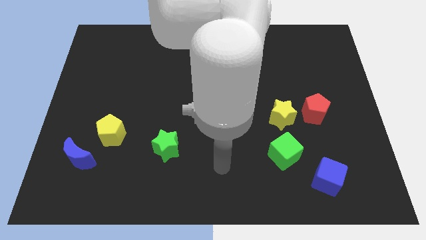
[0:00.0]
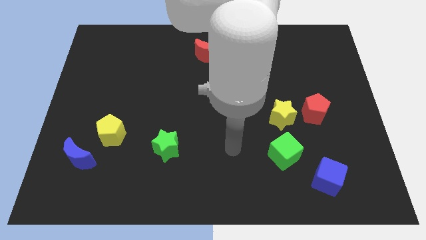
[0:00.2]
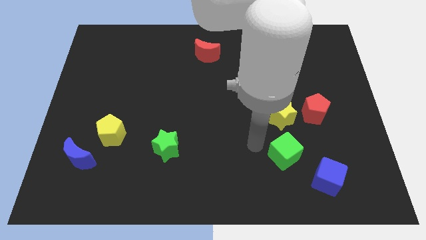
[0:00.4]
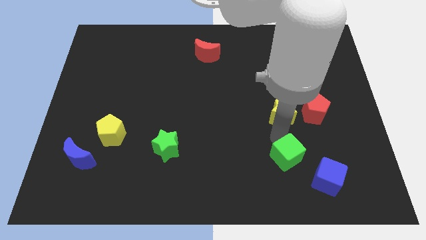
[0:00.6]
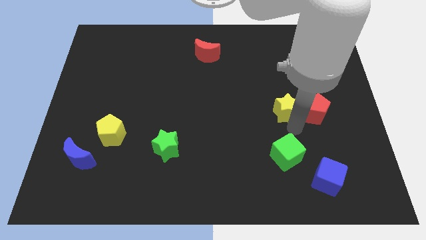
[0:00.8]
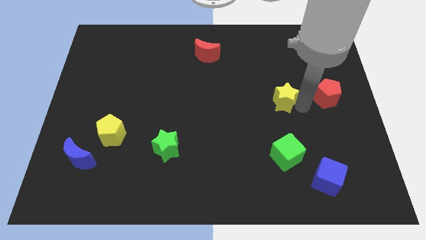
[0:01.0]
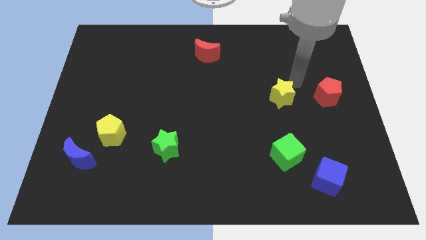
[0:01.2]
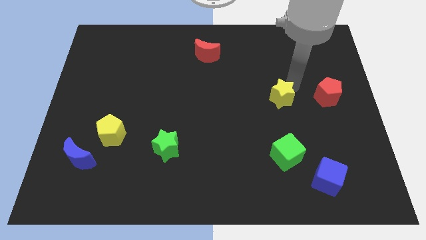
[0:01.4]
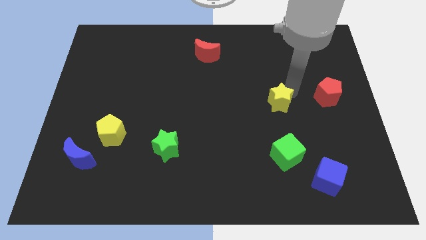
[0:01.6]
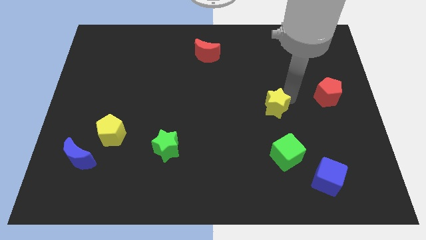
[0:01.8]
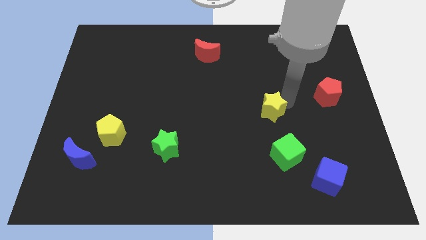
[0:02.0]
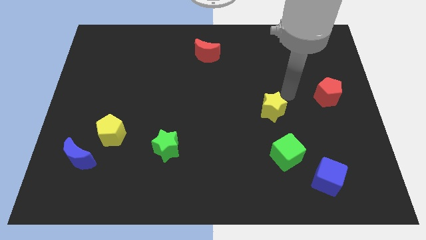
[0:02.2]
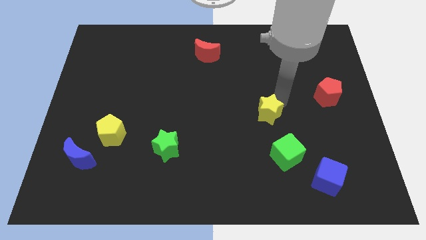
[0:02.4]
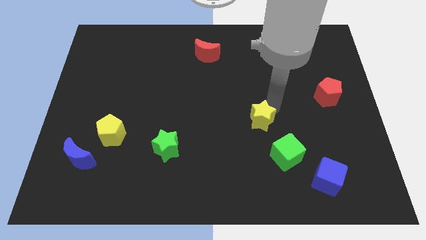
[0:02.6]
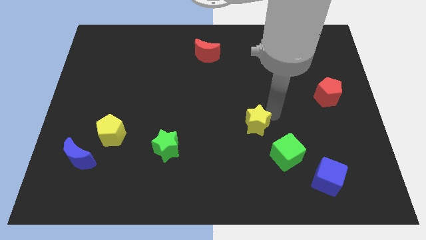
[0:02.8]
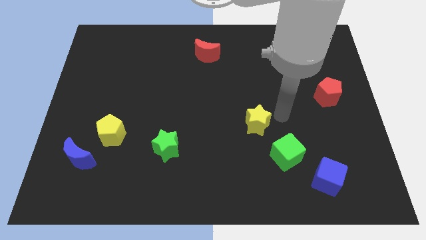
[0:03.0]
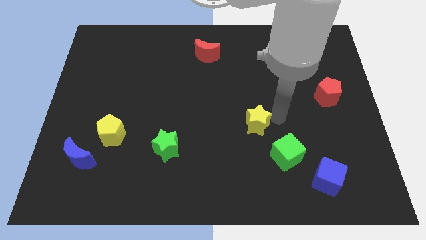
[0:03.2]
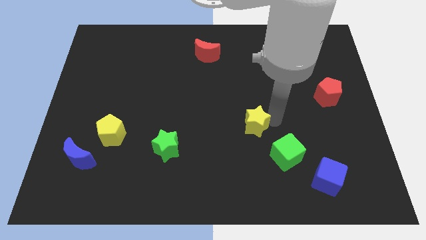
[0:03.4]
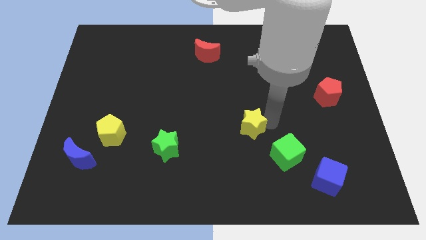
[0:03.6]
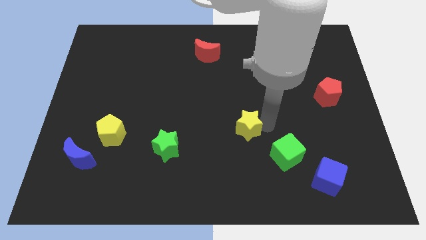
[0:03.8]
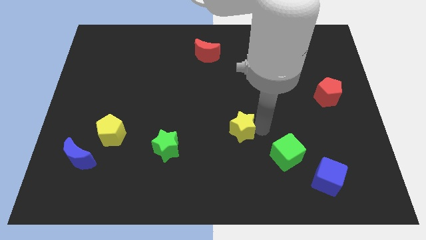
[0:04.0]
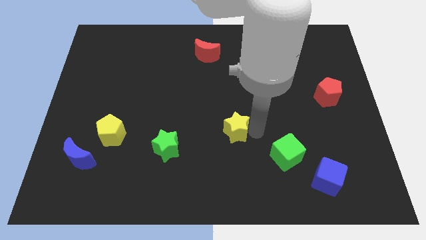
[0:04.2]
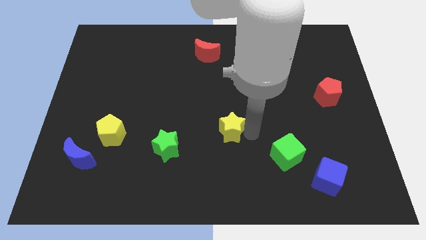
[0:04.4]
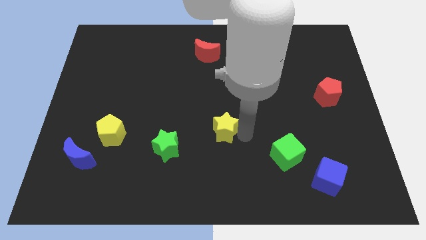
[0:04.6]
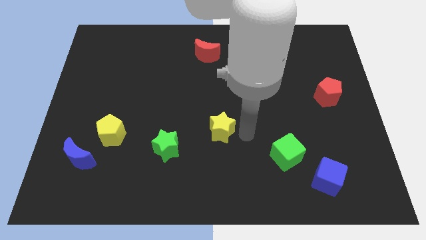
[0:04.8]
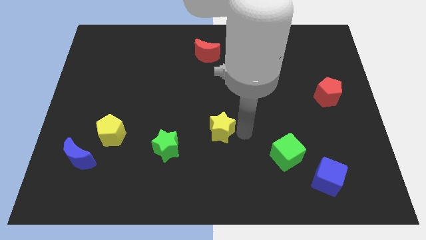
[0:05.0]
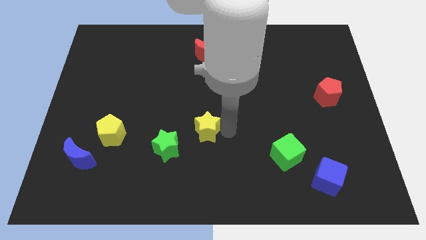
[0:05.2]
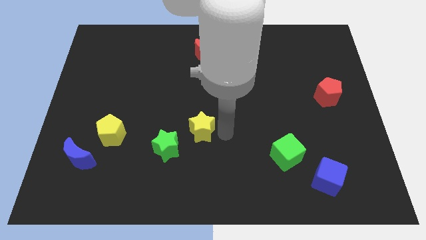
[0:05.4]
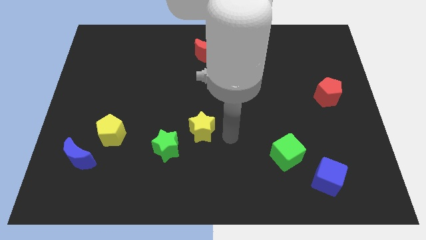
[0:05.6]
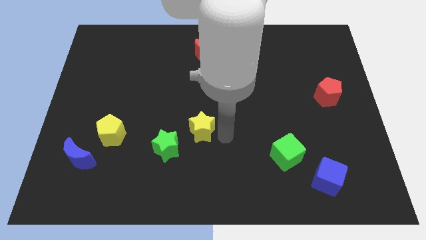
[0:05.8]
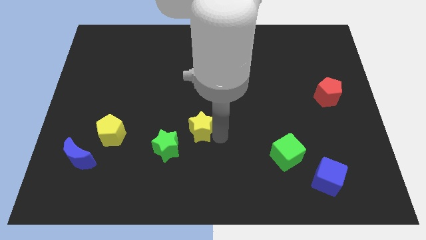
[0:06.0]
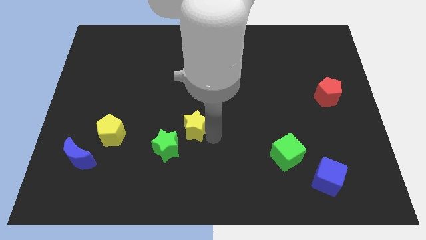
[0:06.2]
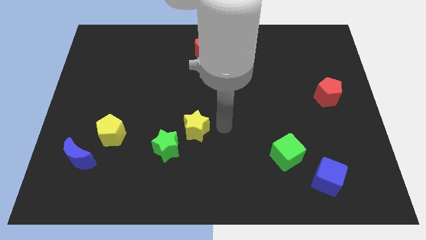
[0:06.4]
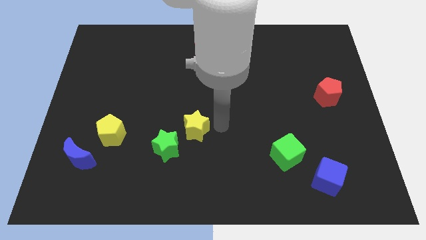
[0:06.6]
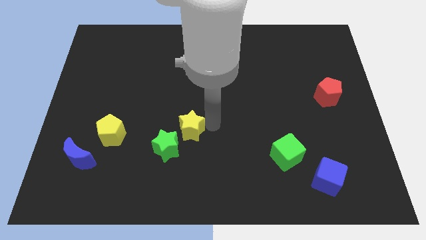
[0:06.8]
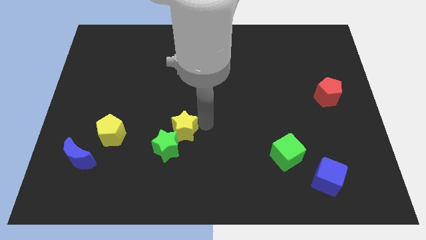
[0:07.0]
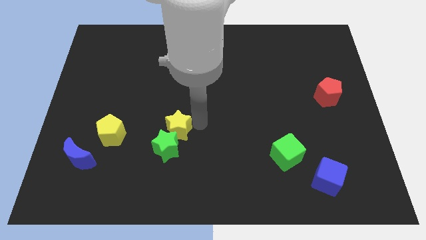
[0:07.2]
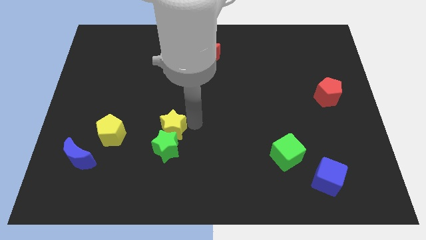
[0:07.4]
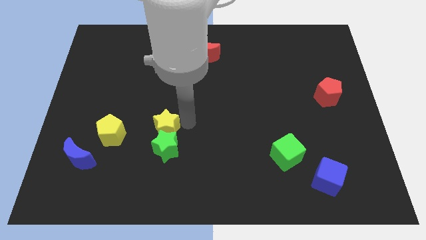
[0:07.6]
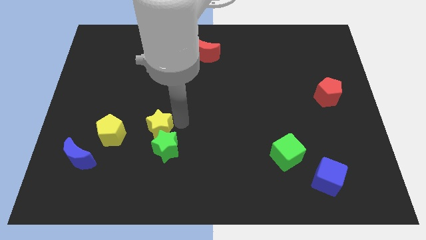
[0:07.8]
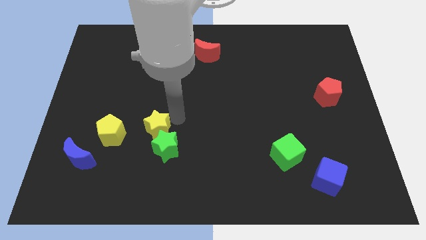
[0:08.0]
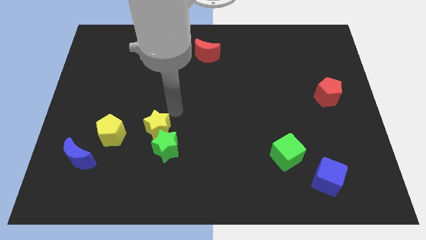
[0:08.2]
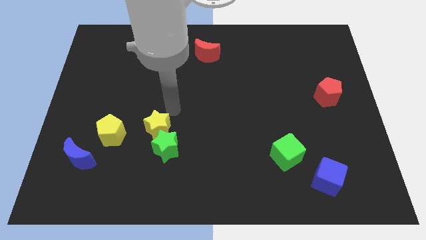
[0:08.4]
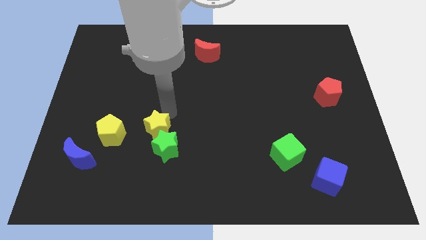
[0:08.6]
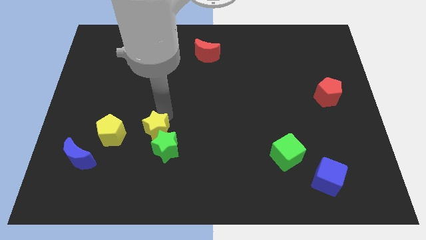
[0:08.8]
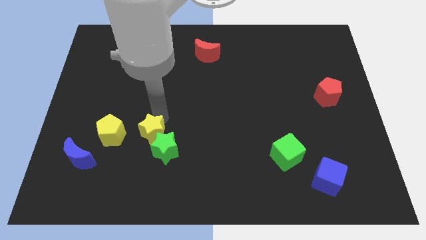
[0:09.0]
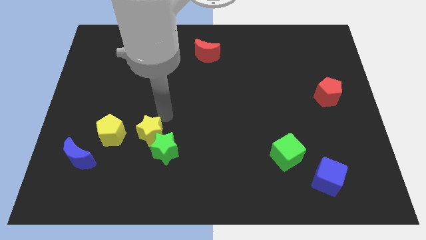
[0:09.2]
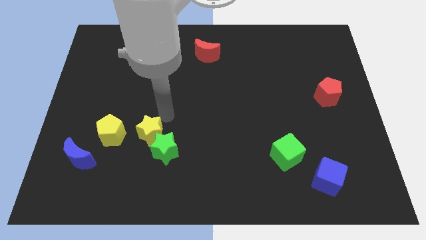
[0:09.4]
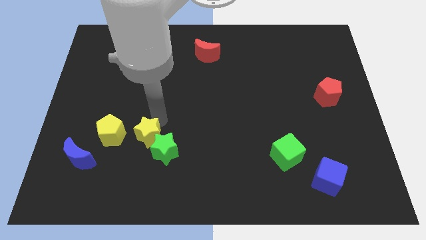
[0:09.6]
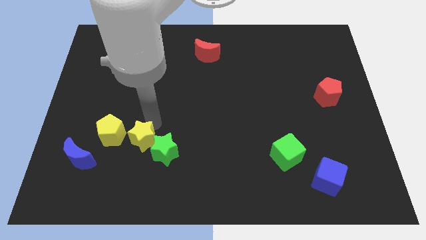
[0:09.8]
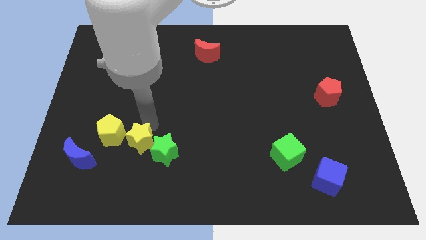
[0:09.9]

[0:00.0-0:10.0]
move the yellow star right of the blue moon

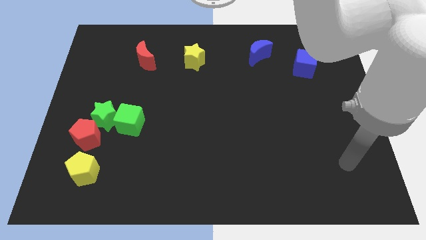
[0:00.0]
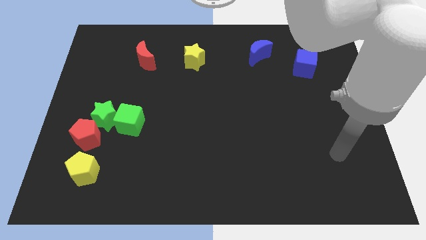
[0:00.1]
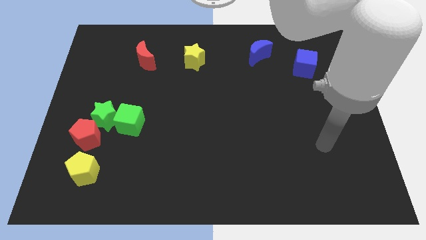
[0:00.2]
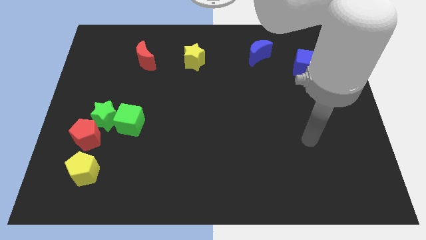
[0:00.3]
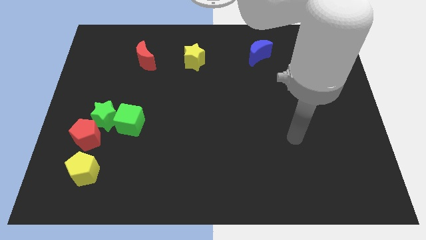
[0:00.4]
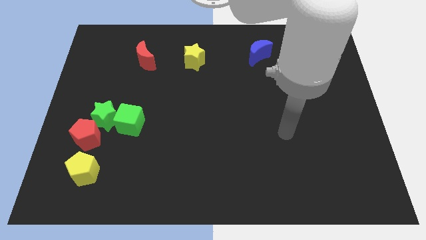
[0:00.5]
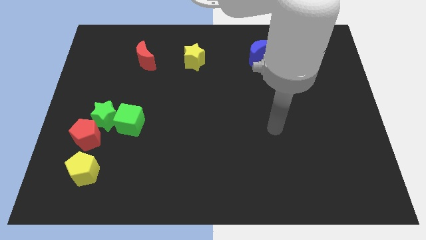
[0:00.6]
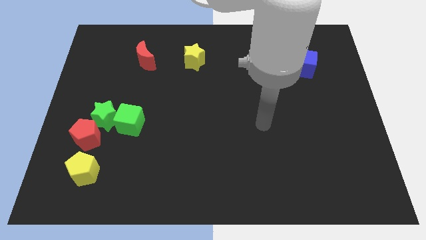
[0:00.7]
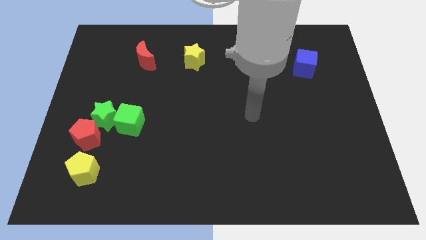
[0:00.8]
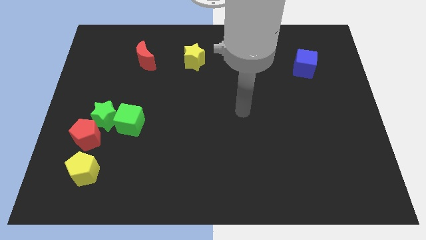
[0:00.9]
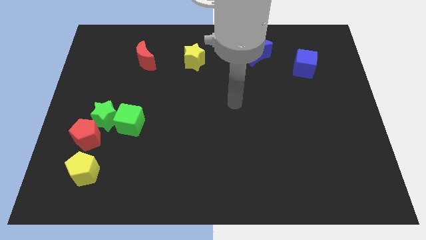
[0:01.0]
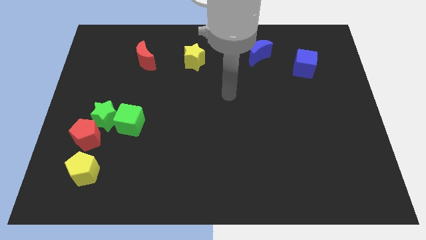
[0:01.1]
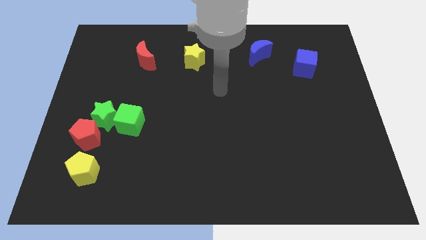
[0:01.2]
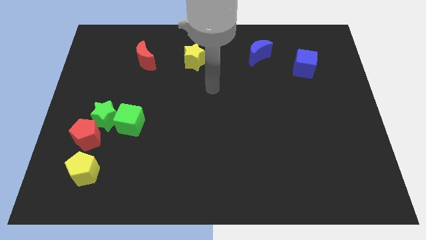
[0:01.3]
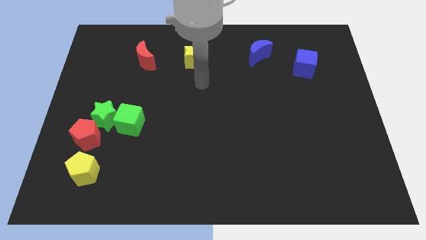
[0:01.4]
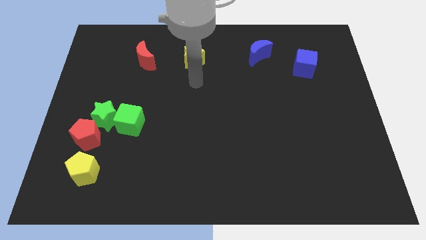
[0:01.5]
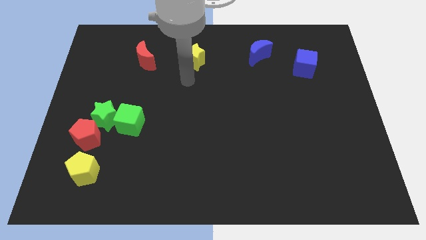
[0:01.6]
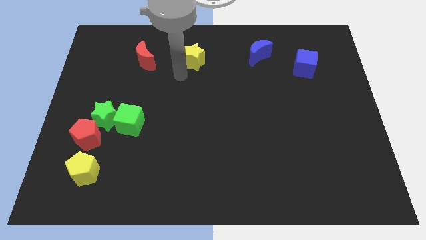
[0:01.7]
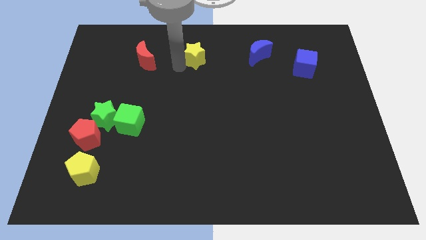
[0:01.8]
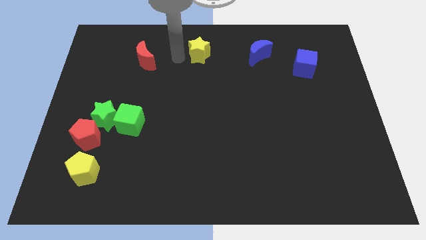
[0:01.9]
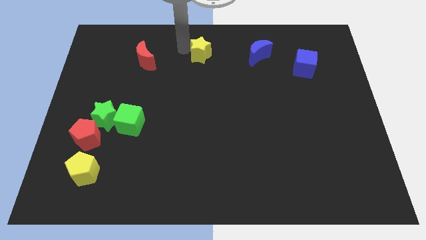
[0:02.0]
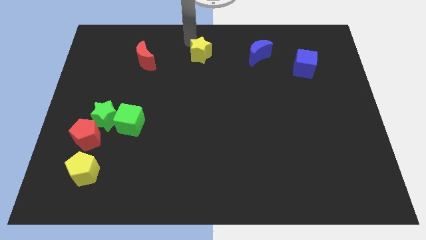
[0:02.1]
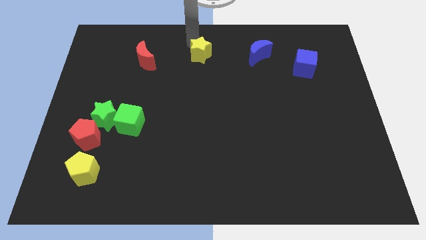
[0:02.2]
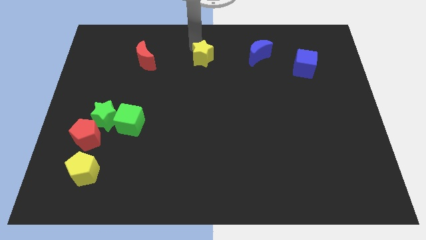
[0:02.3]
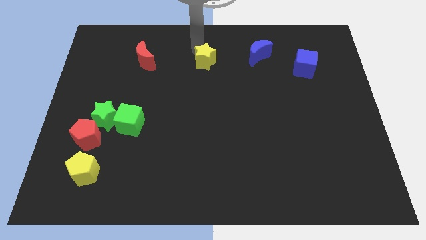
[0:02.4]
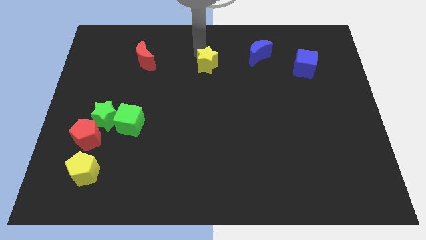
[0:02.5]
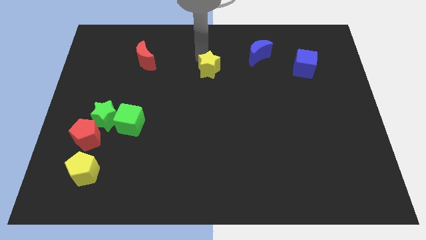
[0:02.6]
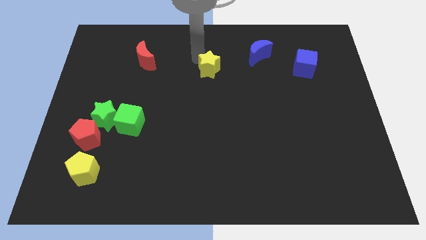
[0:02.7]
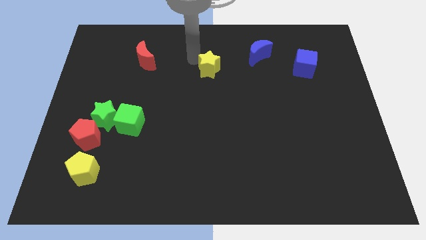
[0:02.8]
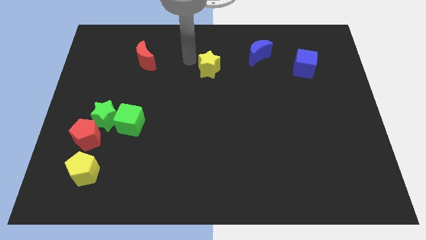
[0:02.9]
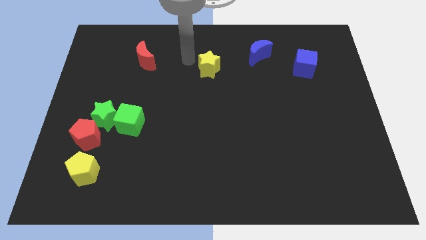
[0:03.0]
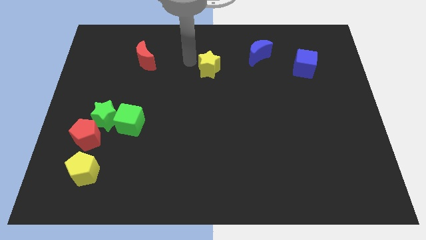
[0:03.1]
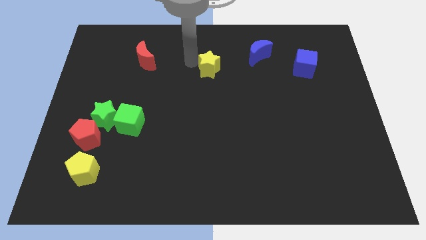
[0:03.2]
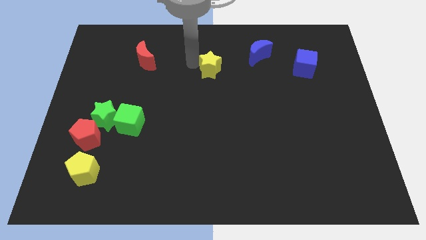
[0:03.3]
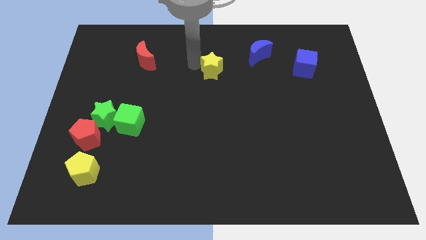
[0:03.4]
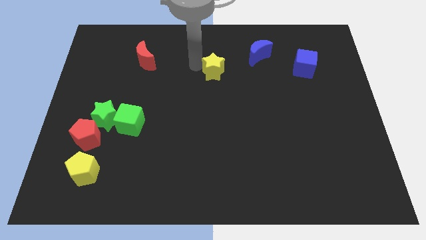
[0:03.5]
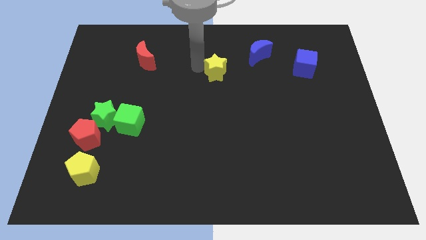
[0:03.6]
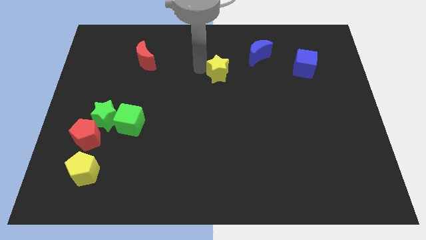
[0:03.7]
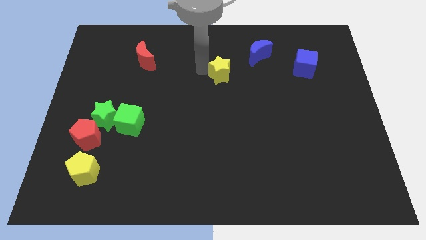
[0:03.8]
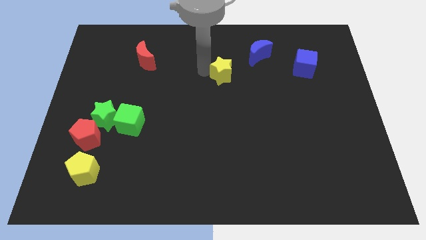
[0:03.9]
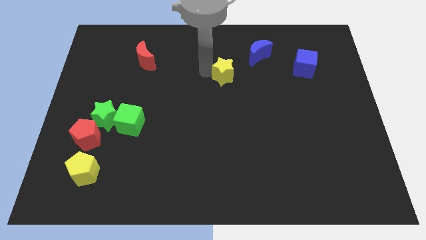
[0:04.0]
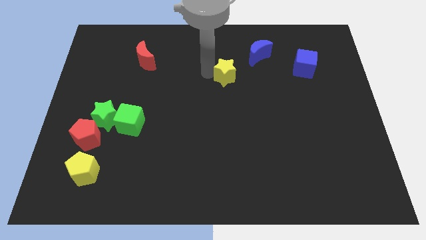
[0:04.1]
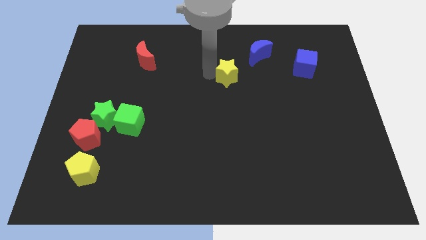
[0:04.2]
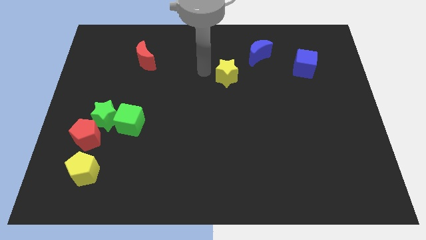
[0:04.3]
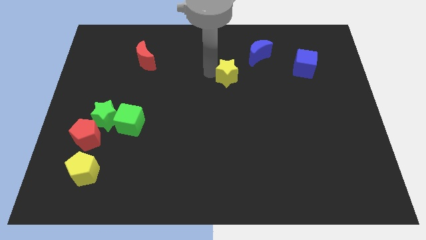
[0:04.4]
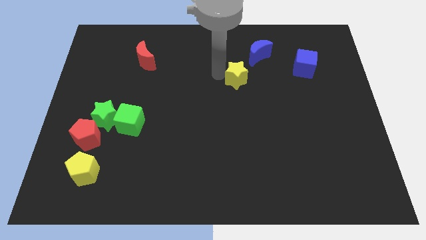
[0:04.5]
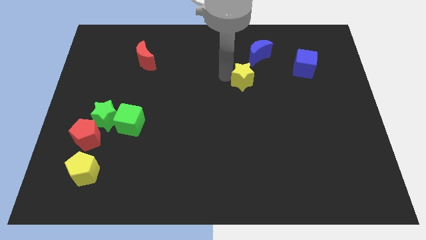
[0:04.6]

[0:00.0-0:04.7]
slide the yellow star to the bottom of the blue moon
